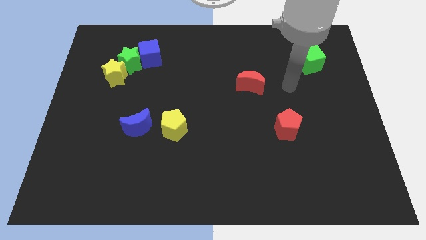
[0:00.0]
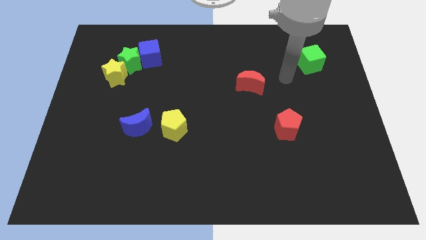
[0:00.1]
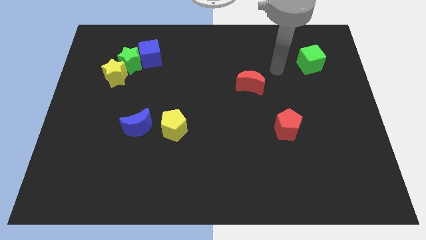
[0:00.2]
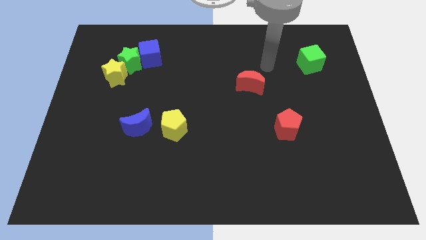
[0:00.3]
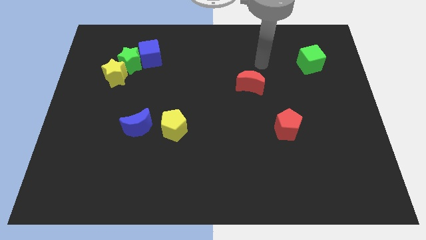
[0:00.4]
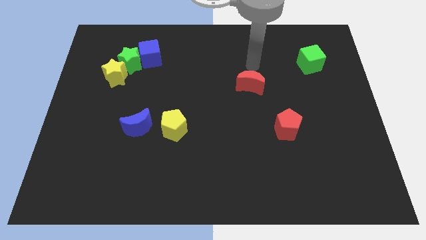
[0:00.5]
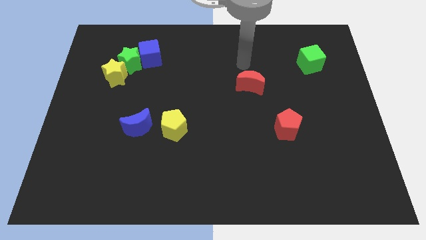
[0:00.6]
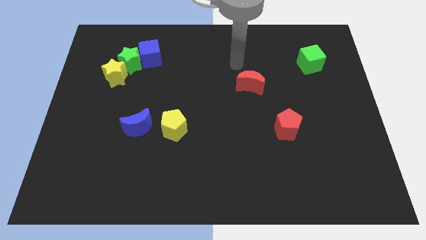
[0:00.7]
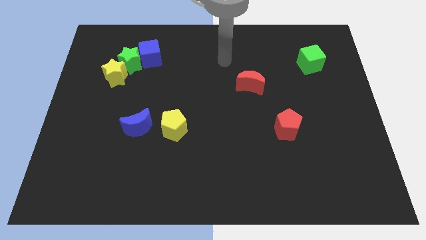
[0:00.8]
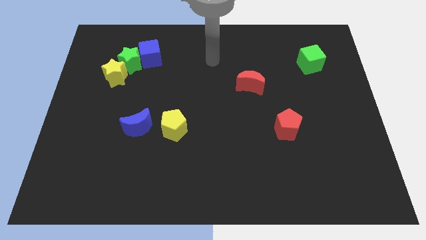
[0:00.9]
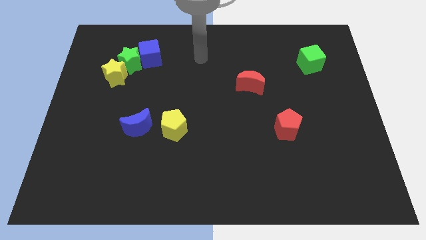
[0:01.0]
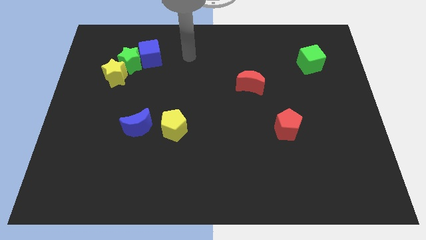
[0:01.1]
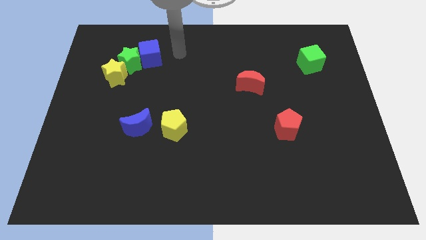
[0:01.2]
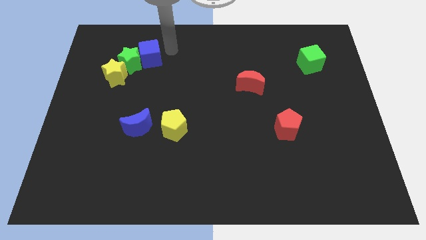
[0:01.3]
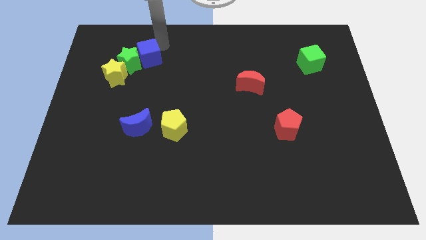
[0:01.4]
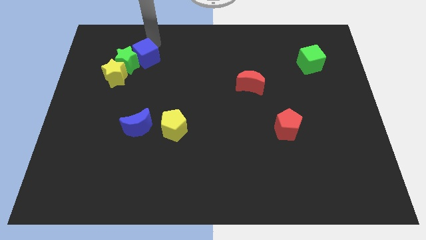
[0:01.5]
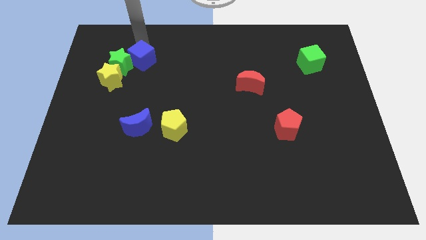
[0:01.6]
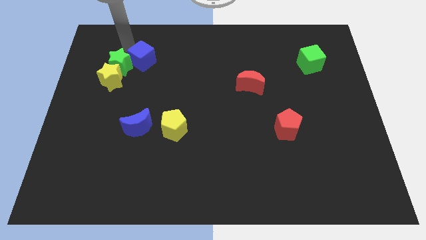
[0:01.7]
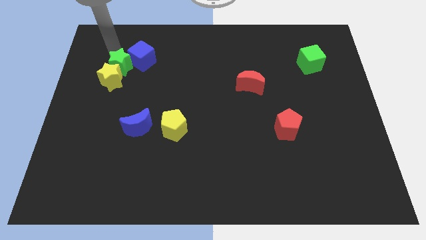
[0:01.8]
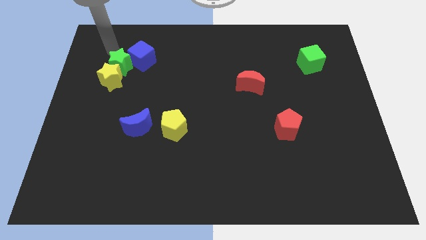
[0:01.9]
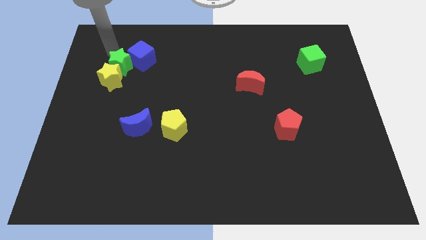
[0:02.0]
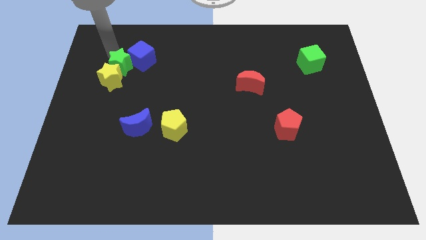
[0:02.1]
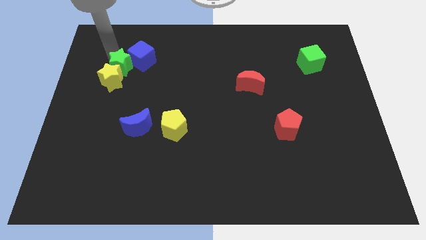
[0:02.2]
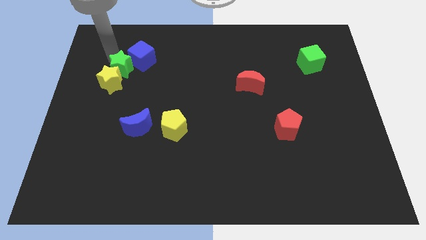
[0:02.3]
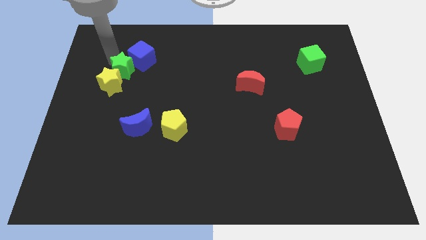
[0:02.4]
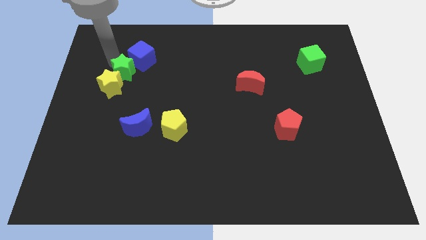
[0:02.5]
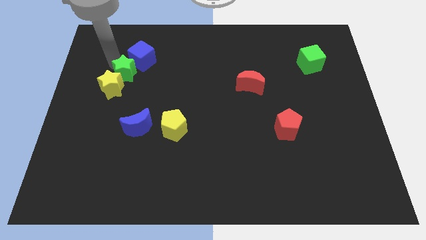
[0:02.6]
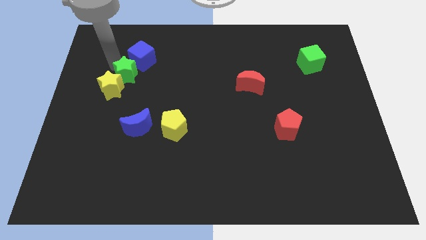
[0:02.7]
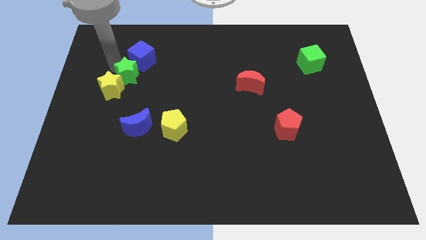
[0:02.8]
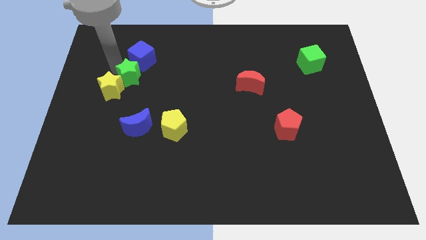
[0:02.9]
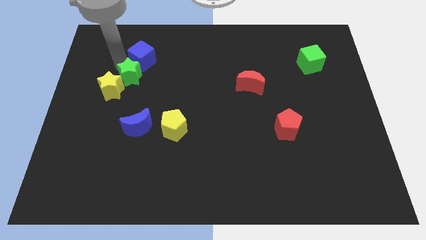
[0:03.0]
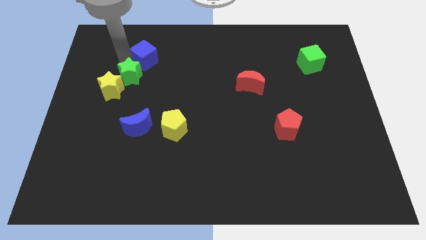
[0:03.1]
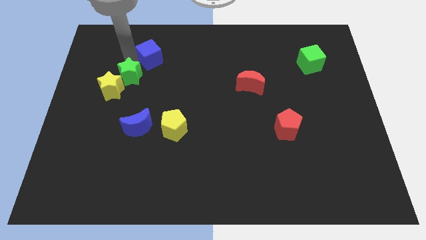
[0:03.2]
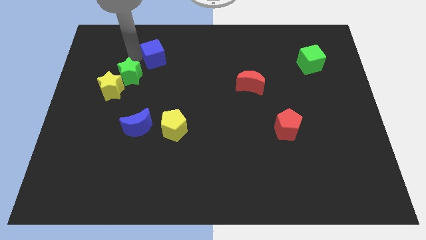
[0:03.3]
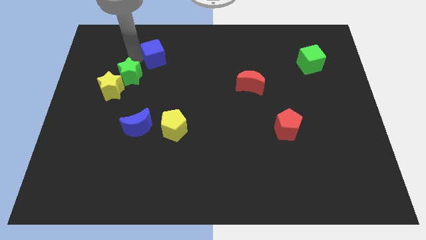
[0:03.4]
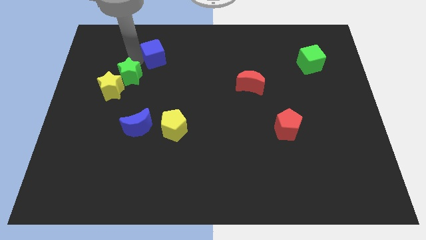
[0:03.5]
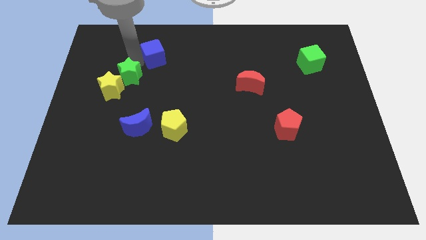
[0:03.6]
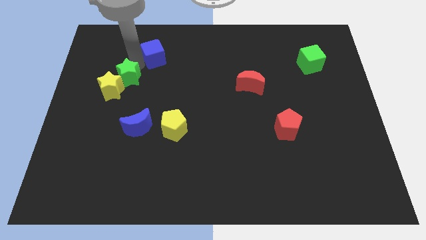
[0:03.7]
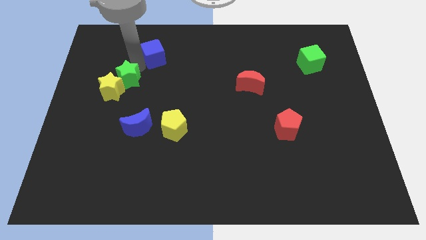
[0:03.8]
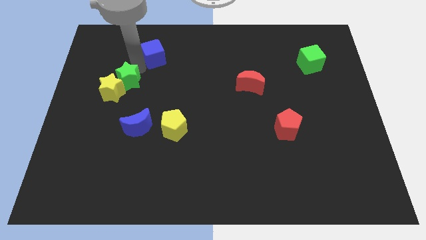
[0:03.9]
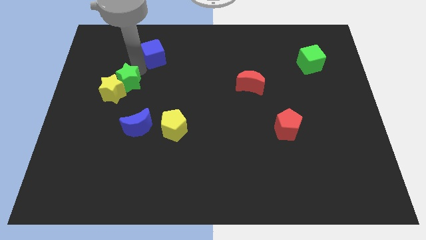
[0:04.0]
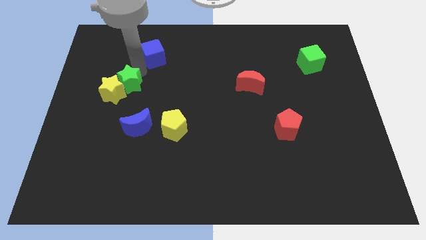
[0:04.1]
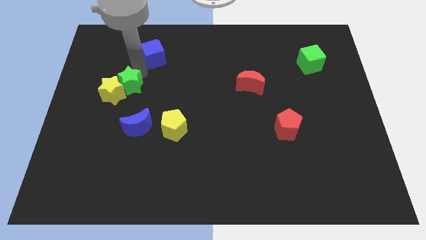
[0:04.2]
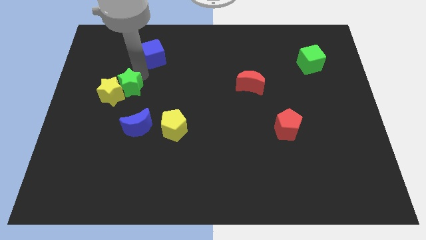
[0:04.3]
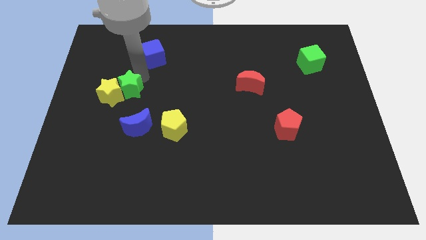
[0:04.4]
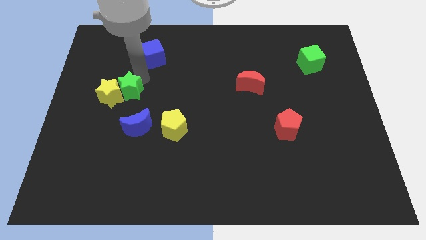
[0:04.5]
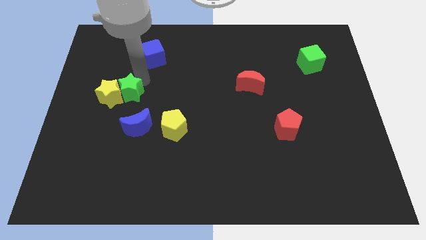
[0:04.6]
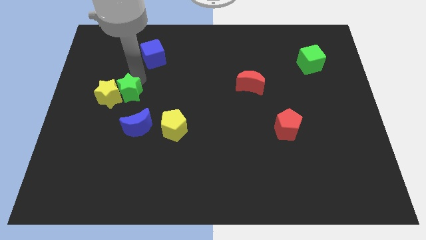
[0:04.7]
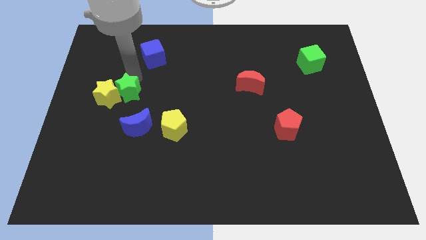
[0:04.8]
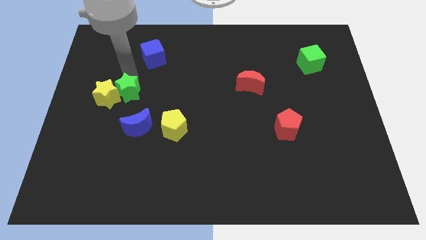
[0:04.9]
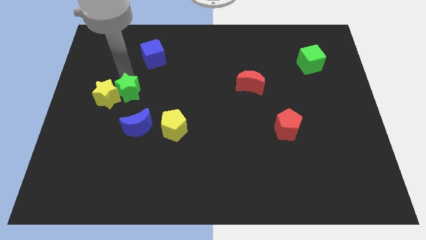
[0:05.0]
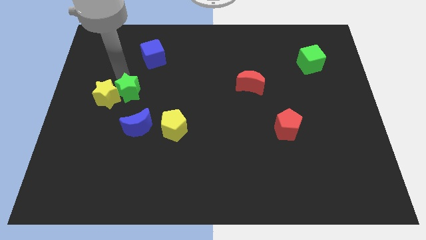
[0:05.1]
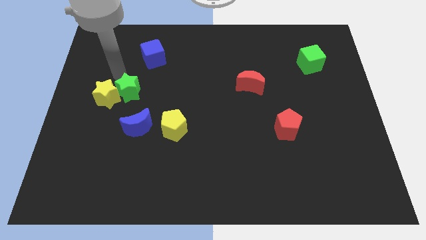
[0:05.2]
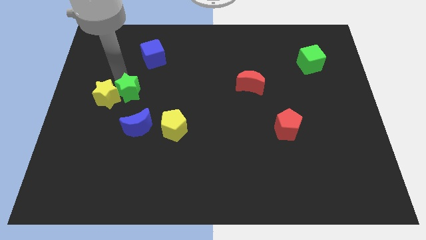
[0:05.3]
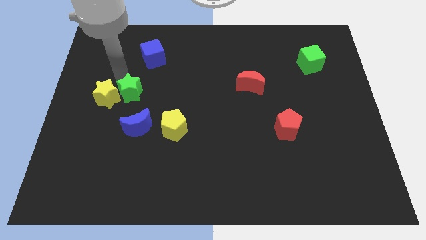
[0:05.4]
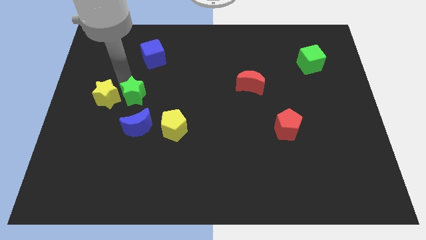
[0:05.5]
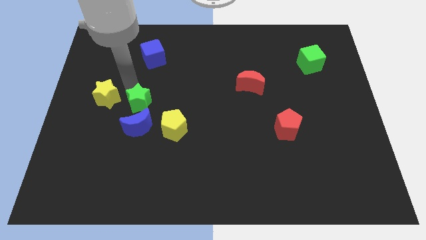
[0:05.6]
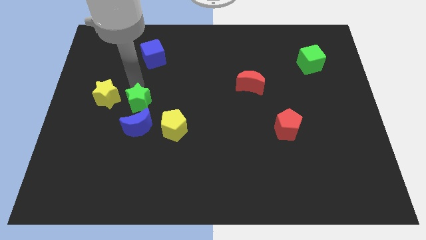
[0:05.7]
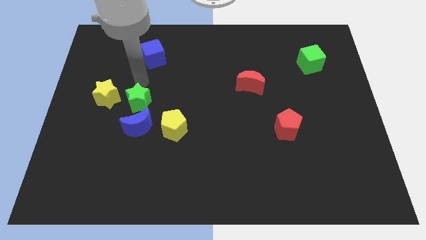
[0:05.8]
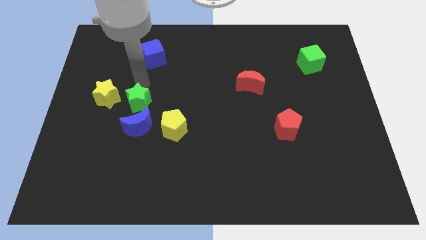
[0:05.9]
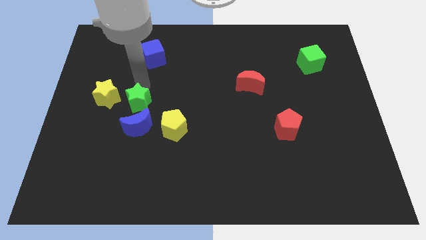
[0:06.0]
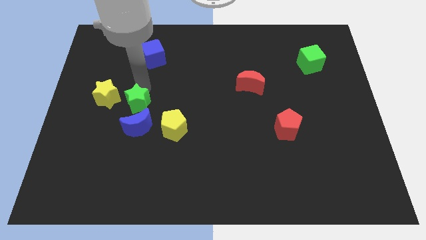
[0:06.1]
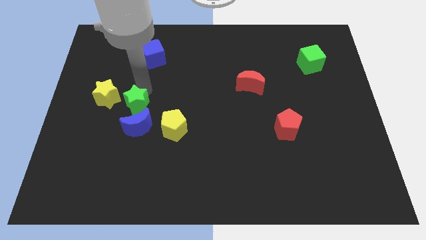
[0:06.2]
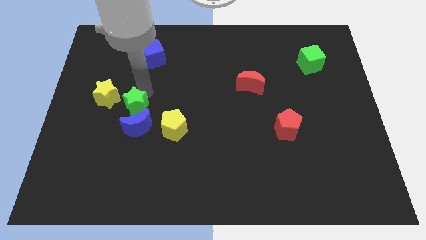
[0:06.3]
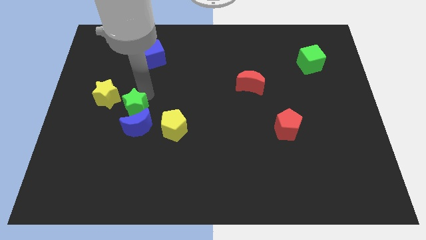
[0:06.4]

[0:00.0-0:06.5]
push the green star towards the blue moon

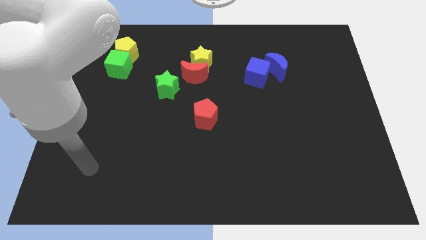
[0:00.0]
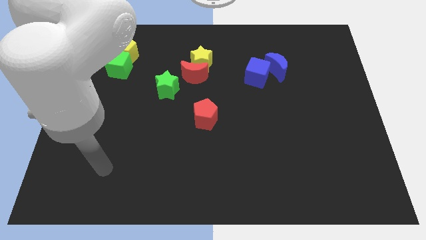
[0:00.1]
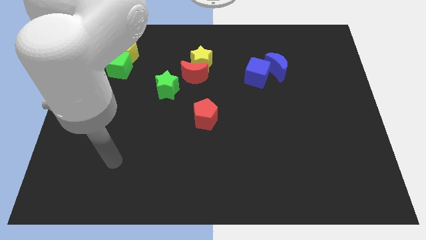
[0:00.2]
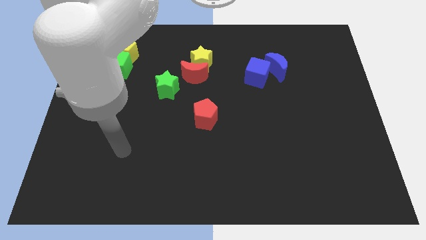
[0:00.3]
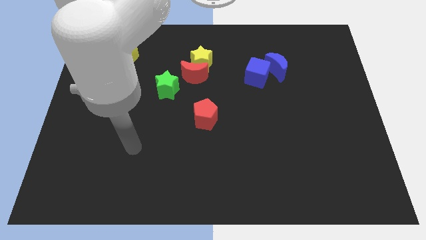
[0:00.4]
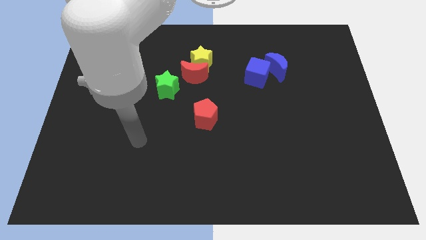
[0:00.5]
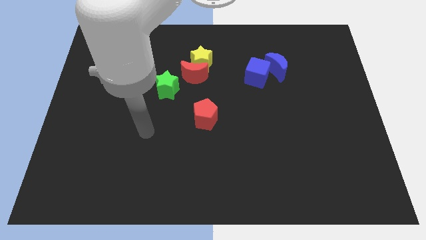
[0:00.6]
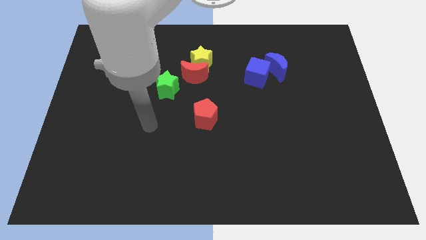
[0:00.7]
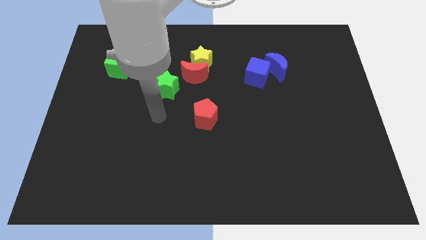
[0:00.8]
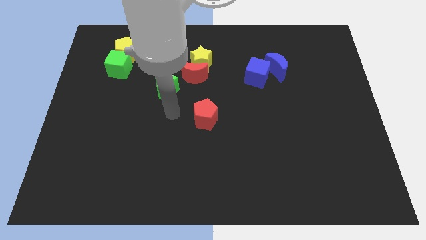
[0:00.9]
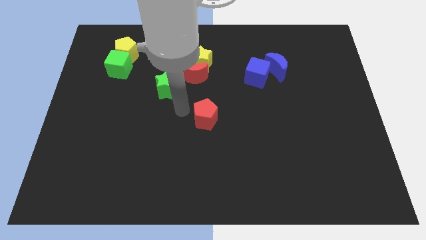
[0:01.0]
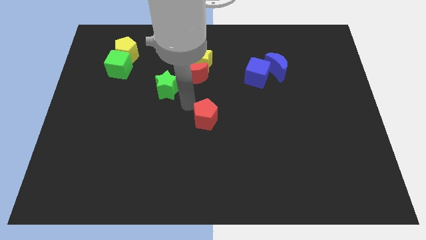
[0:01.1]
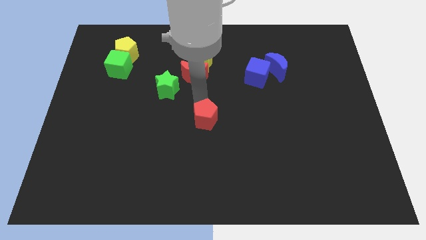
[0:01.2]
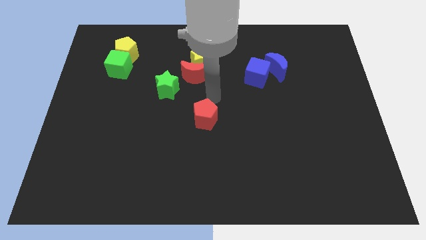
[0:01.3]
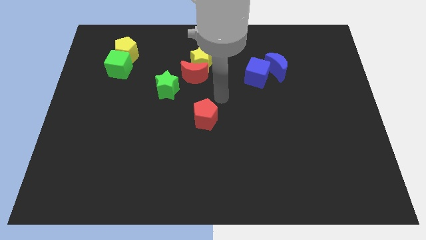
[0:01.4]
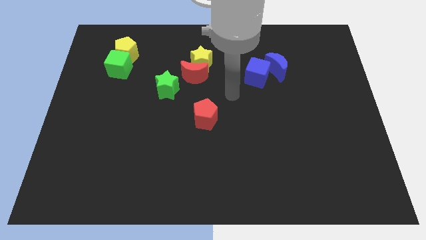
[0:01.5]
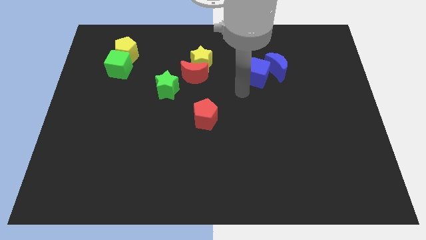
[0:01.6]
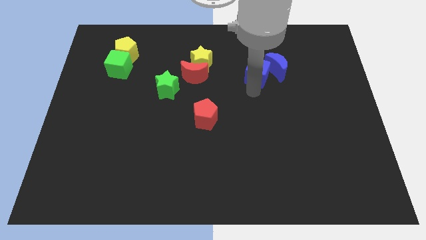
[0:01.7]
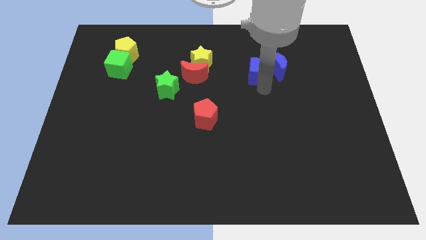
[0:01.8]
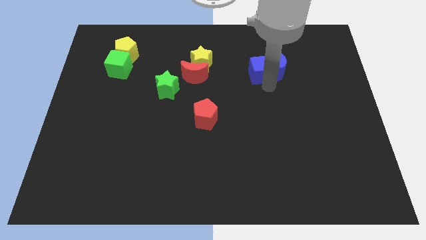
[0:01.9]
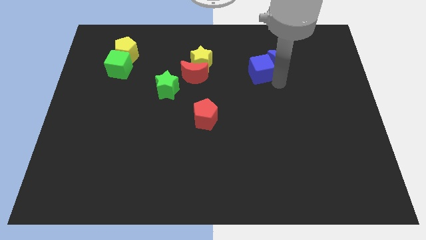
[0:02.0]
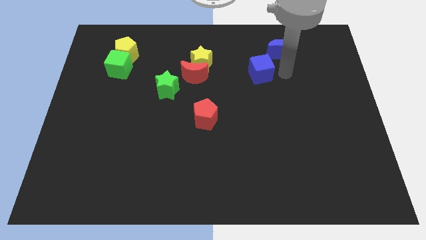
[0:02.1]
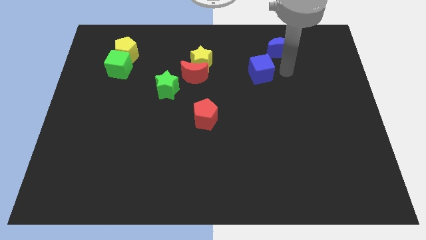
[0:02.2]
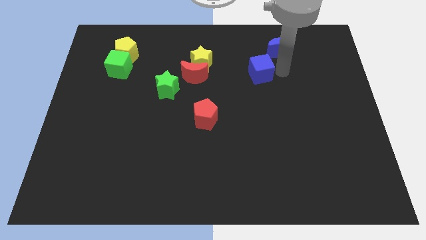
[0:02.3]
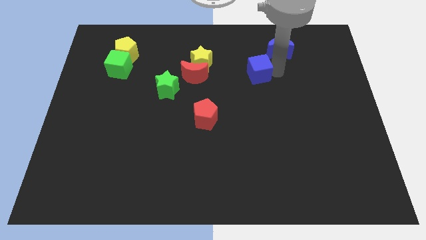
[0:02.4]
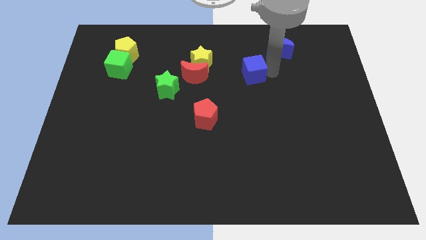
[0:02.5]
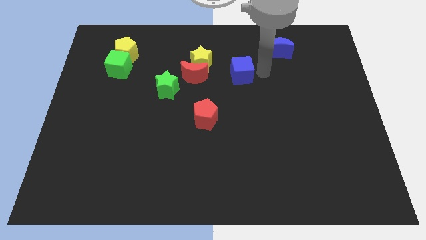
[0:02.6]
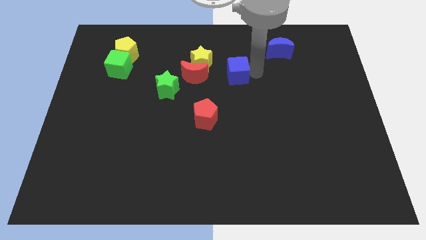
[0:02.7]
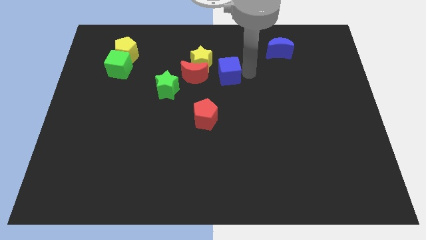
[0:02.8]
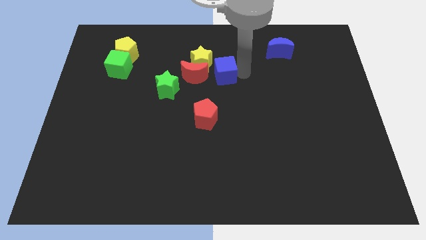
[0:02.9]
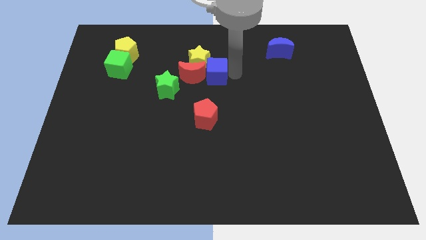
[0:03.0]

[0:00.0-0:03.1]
slide the blue cube close to the red moon
